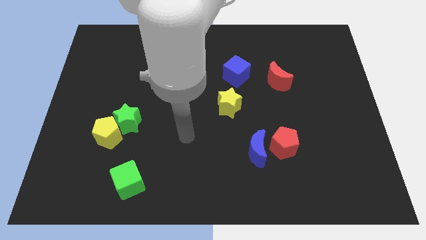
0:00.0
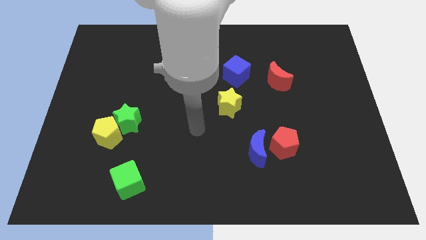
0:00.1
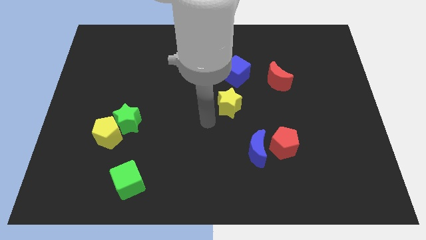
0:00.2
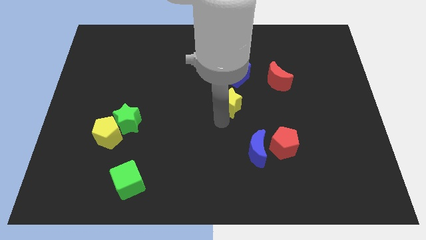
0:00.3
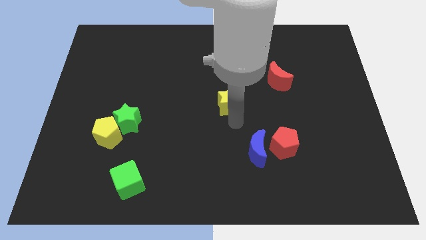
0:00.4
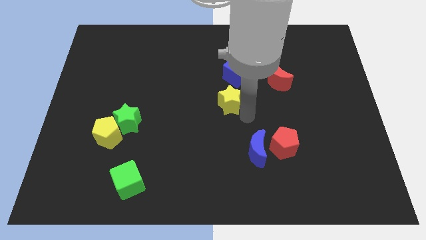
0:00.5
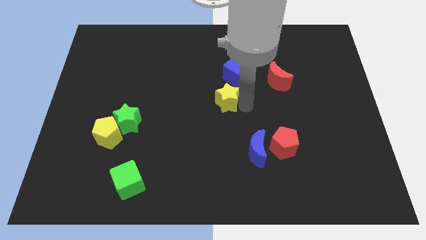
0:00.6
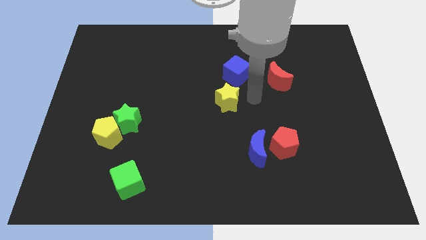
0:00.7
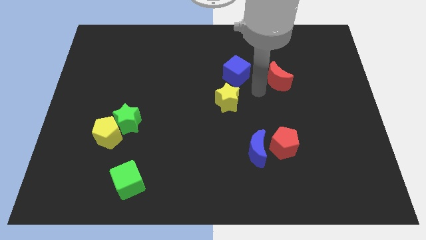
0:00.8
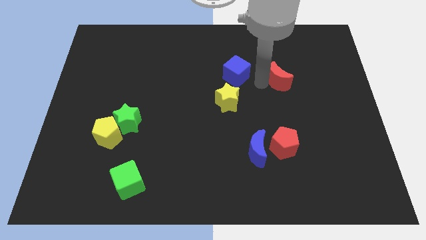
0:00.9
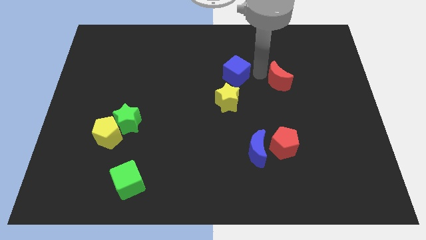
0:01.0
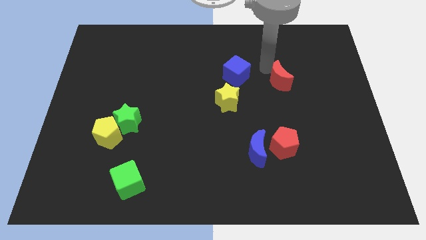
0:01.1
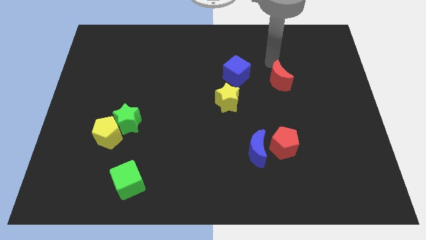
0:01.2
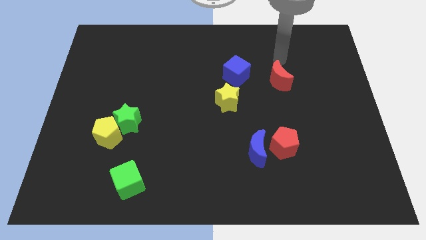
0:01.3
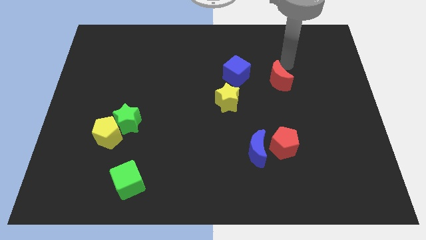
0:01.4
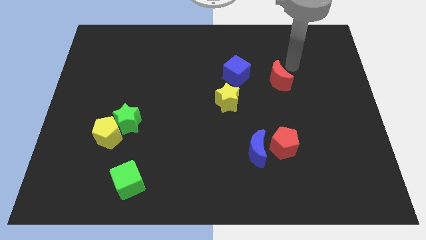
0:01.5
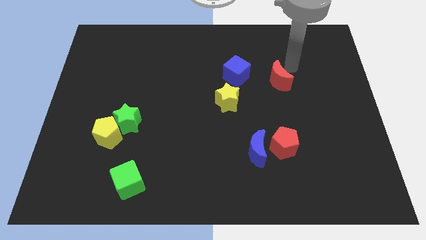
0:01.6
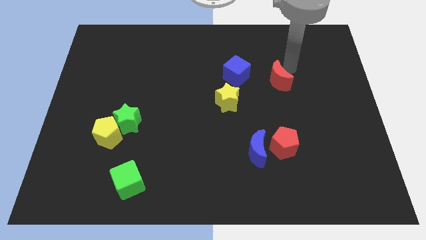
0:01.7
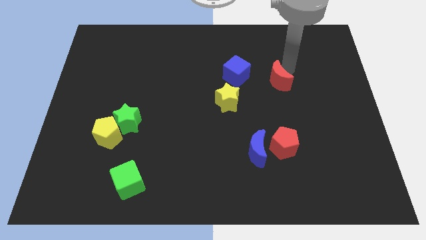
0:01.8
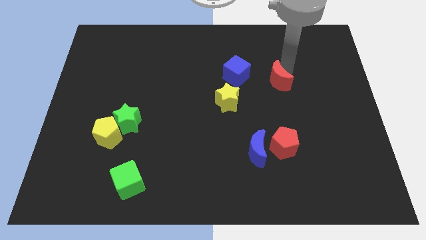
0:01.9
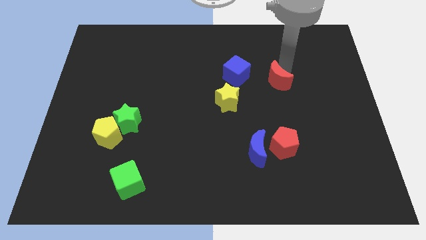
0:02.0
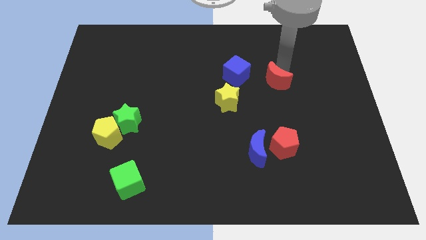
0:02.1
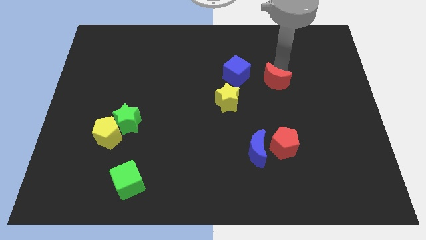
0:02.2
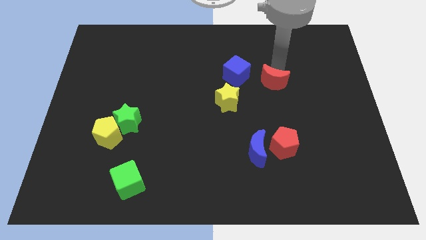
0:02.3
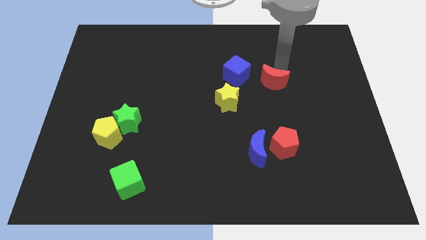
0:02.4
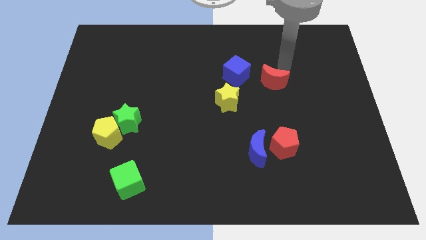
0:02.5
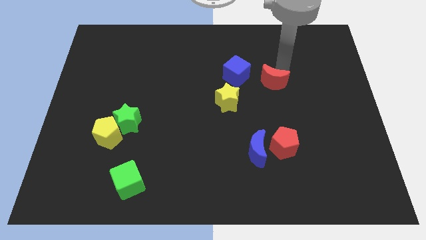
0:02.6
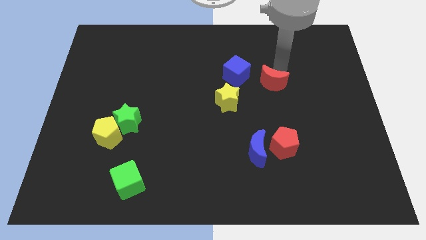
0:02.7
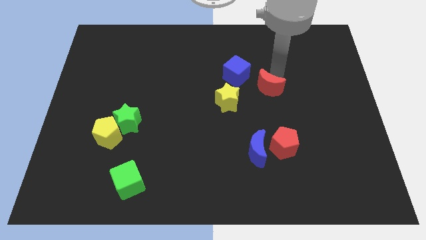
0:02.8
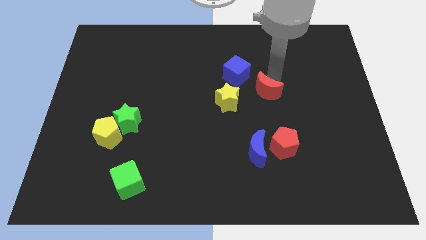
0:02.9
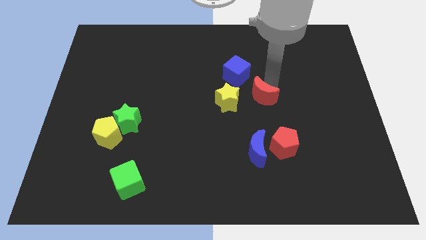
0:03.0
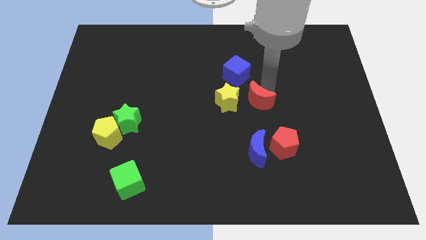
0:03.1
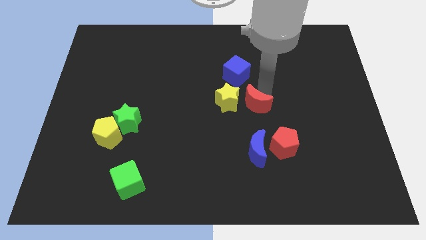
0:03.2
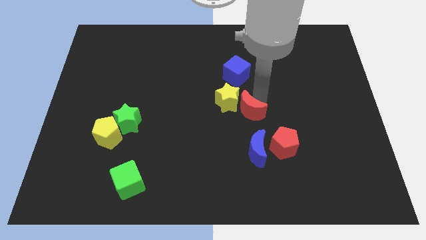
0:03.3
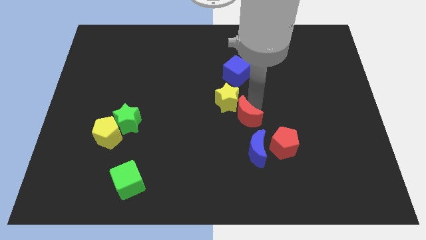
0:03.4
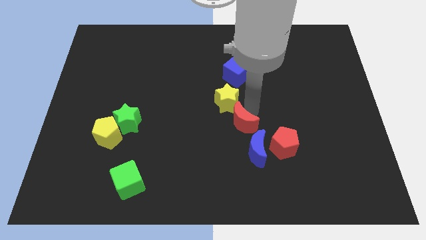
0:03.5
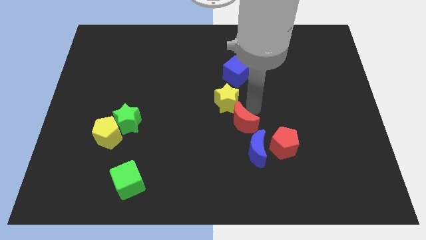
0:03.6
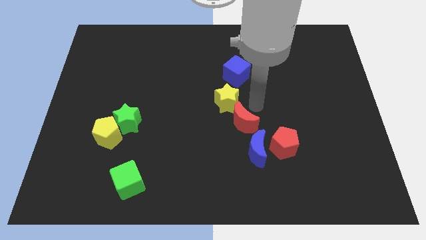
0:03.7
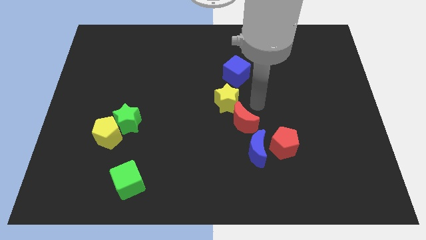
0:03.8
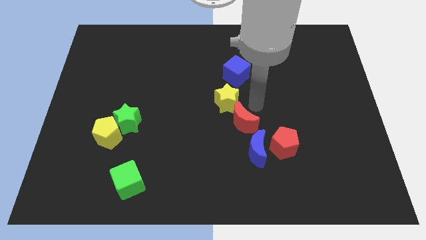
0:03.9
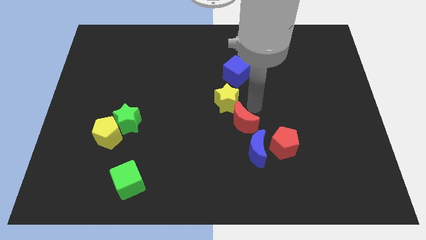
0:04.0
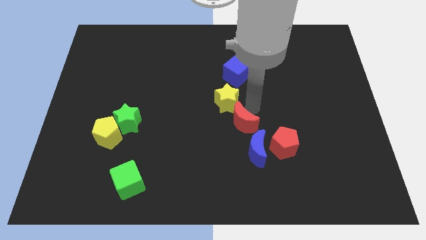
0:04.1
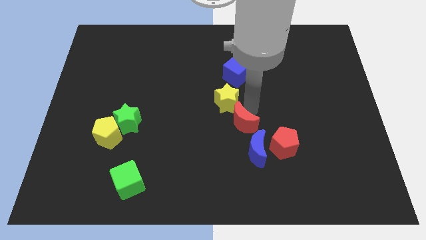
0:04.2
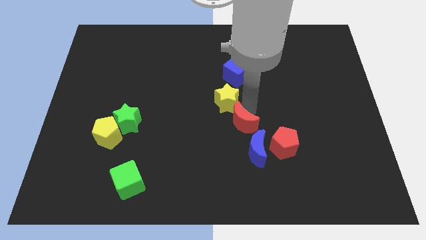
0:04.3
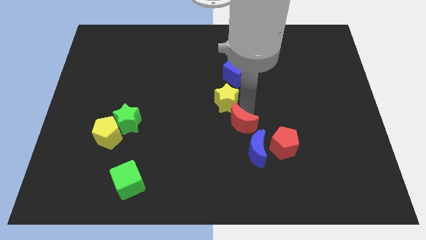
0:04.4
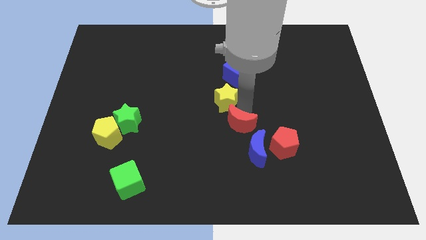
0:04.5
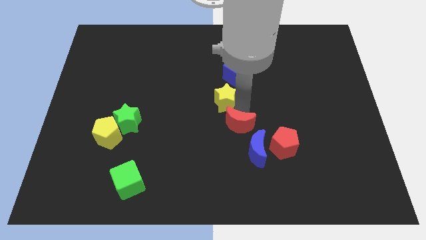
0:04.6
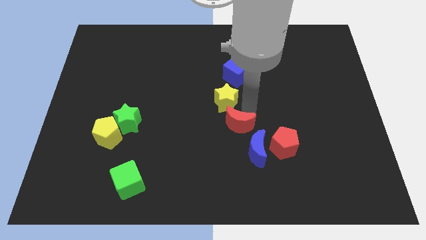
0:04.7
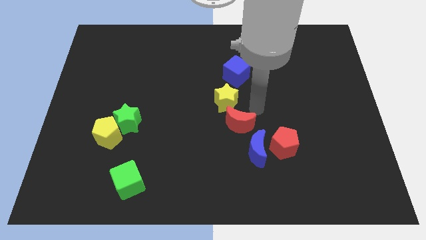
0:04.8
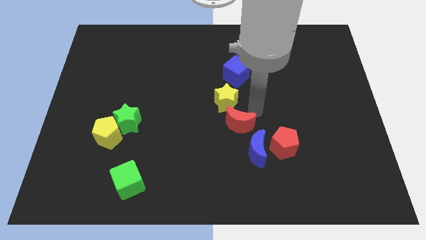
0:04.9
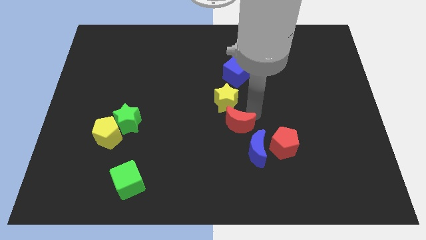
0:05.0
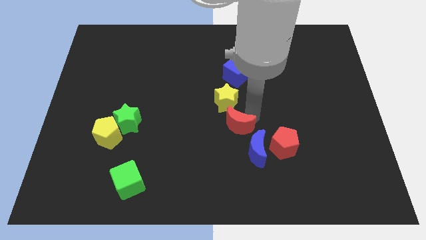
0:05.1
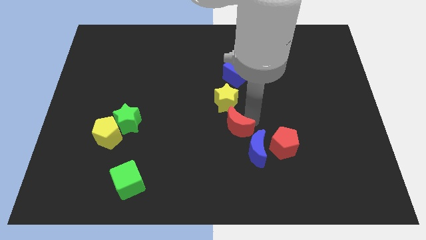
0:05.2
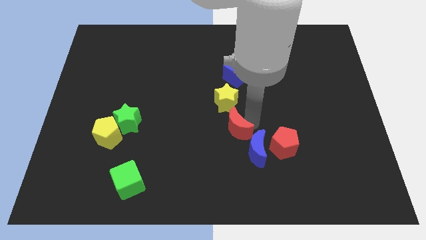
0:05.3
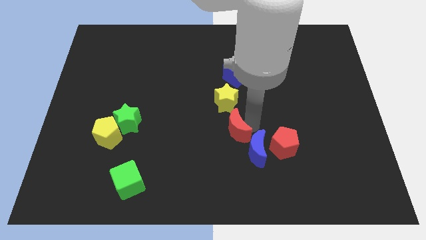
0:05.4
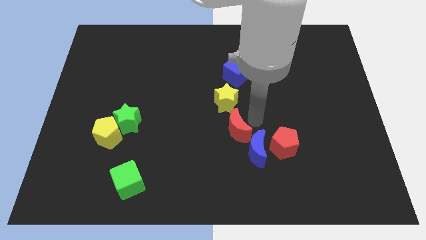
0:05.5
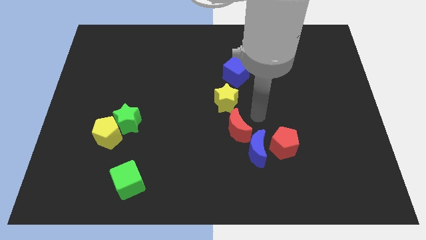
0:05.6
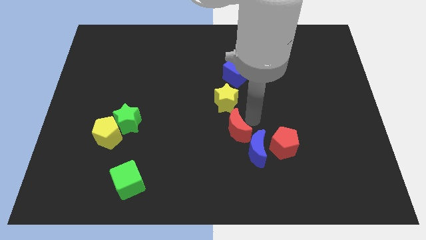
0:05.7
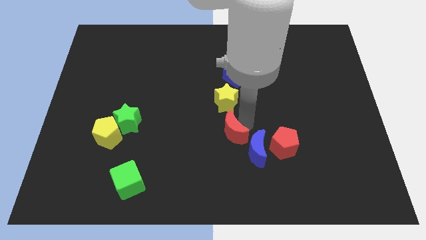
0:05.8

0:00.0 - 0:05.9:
push the red moon to the left side of the blue moon

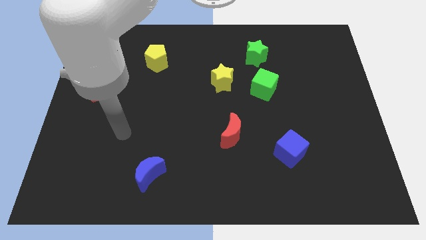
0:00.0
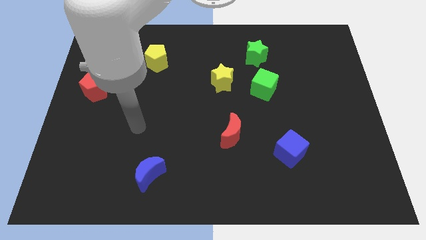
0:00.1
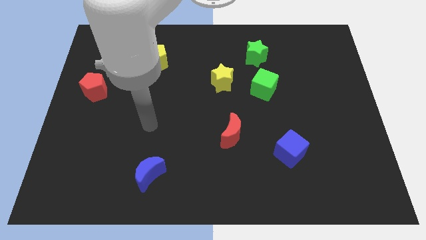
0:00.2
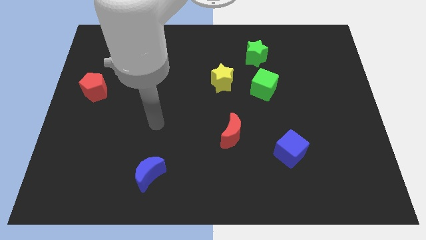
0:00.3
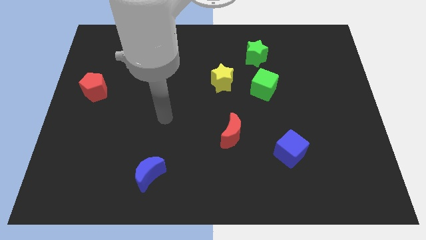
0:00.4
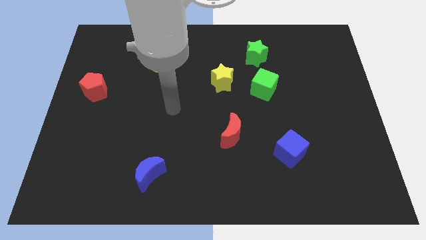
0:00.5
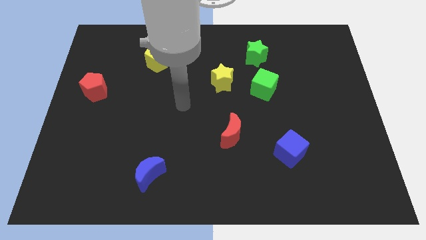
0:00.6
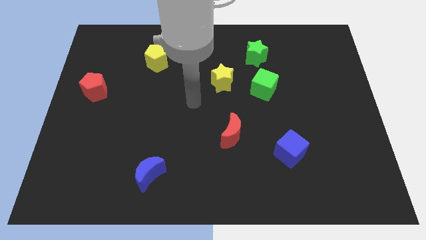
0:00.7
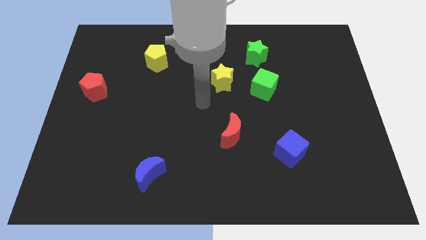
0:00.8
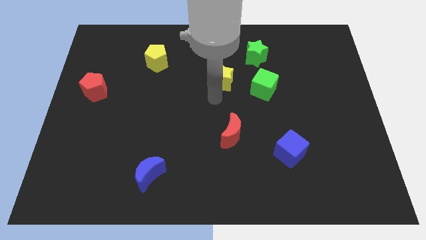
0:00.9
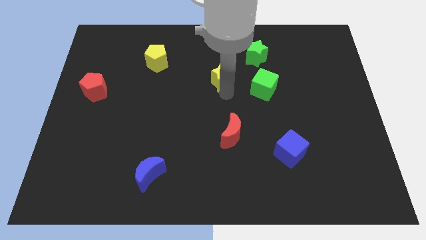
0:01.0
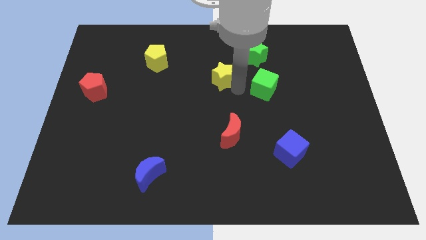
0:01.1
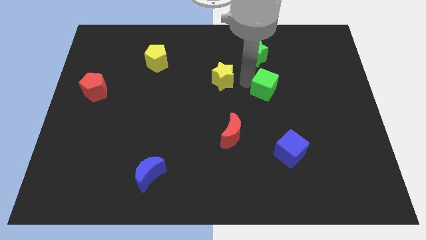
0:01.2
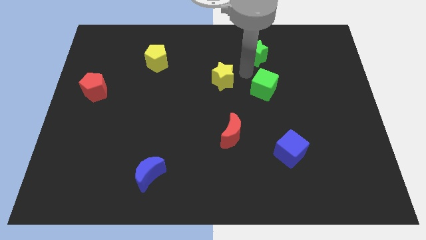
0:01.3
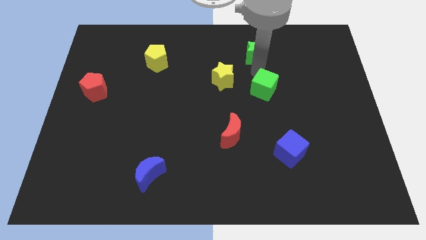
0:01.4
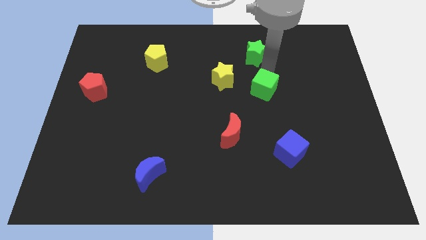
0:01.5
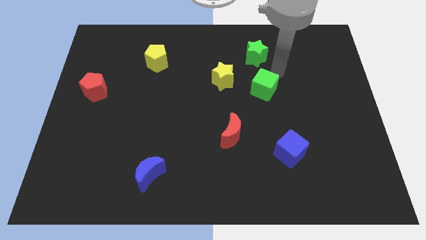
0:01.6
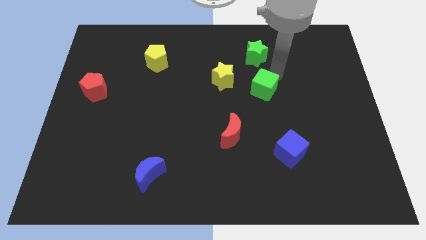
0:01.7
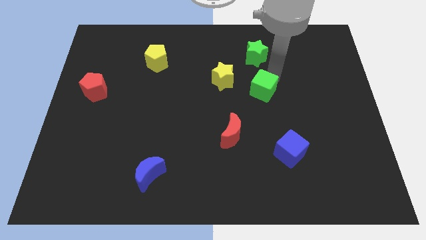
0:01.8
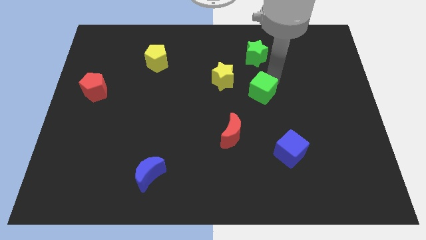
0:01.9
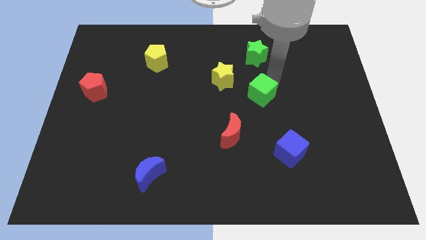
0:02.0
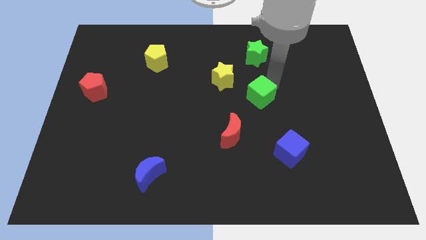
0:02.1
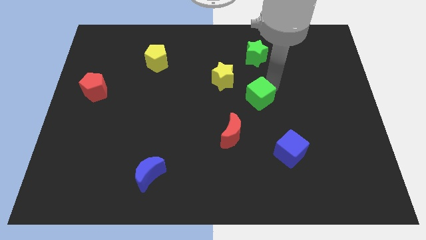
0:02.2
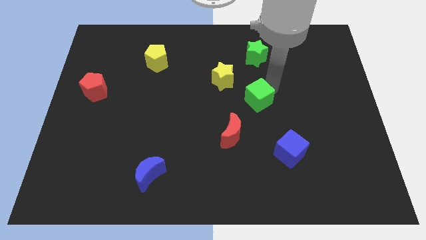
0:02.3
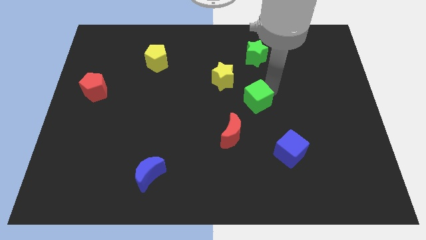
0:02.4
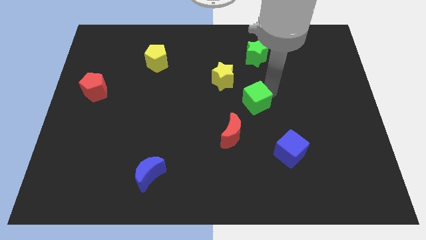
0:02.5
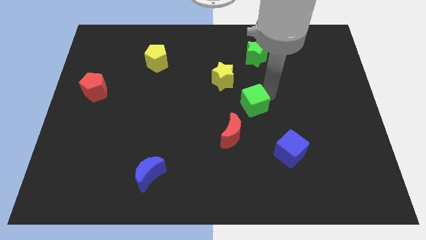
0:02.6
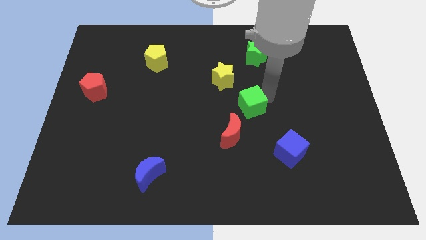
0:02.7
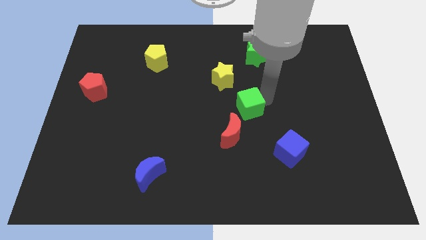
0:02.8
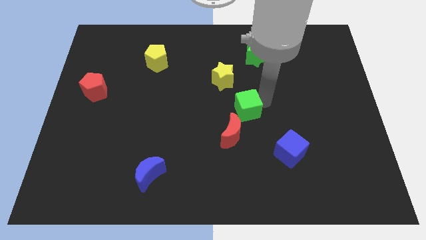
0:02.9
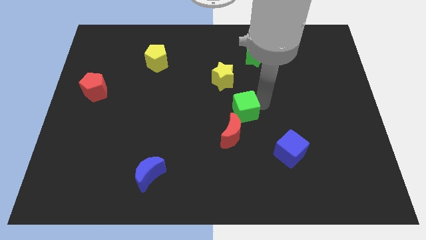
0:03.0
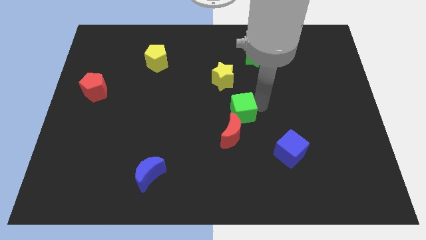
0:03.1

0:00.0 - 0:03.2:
slide the green cube to the bottom side of the yellow star
